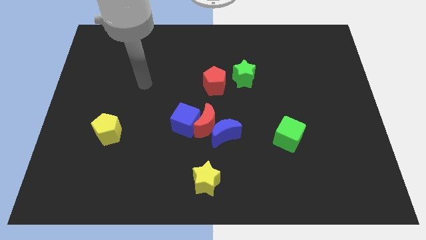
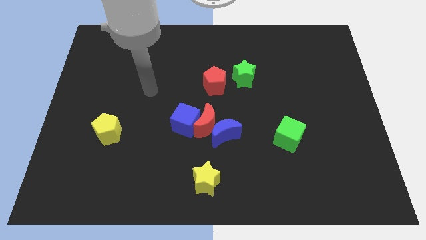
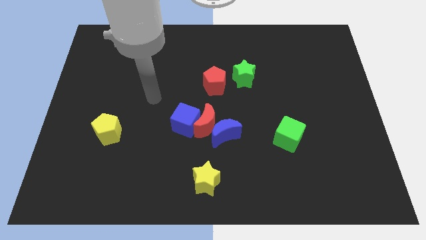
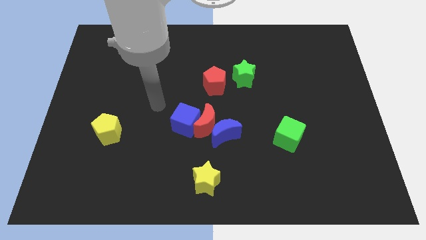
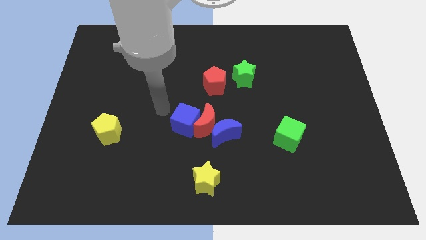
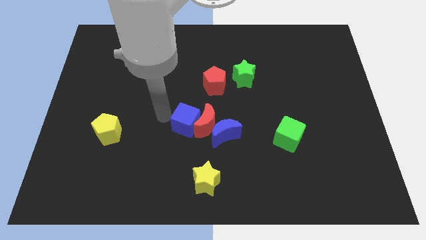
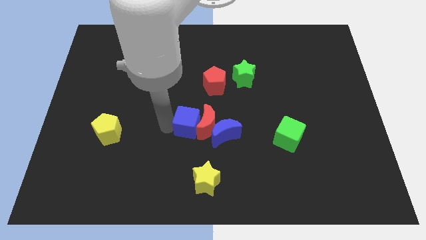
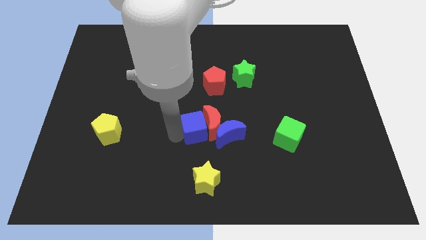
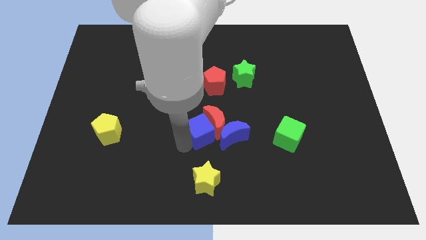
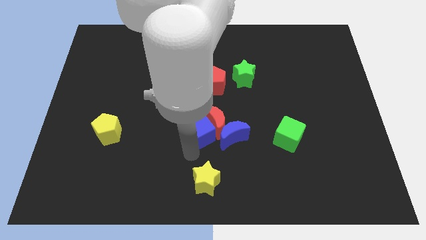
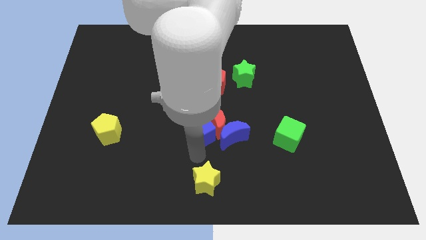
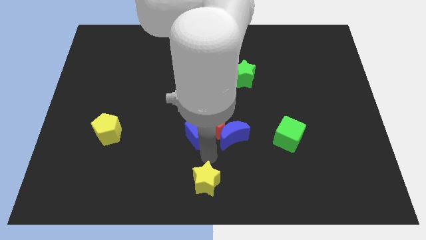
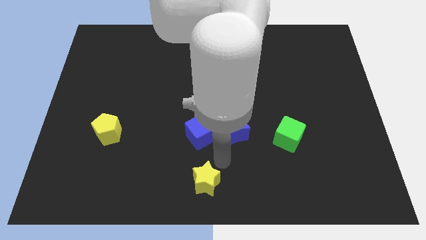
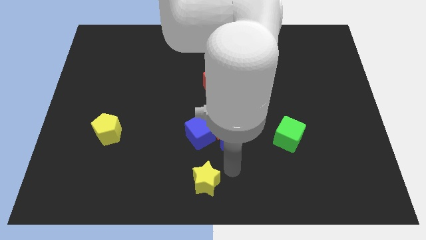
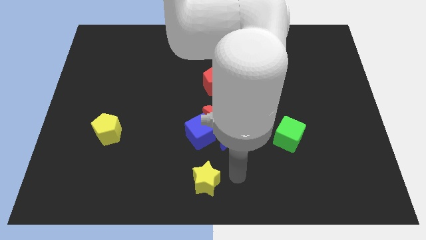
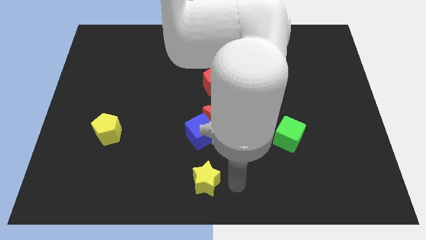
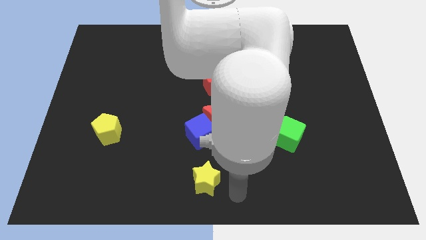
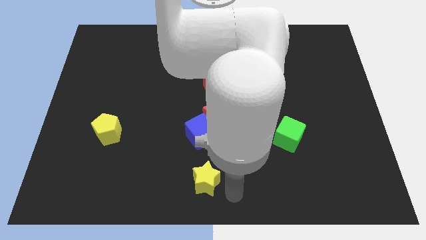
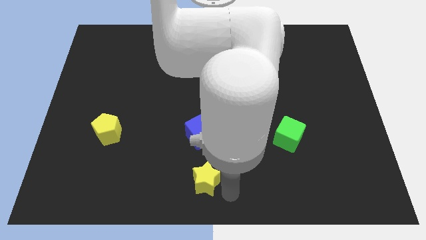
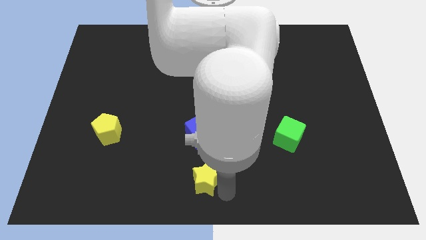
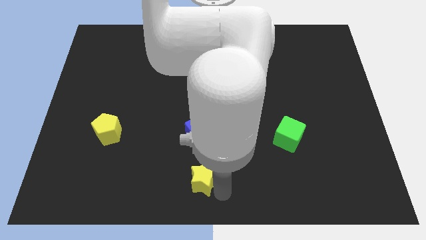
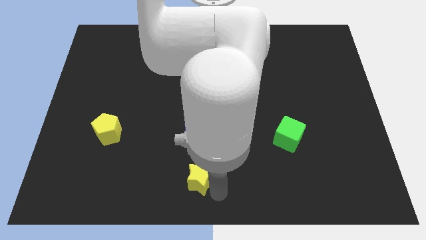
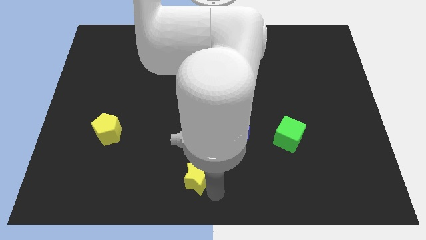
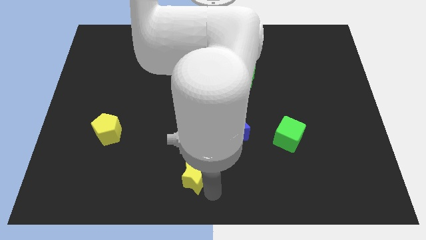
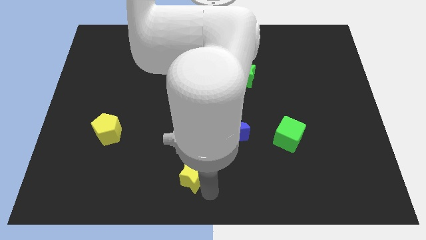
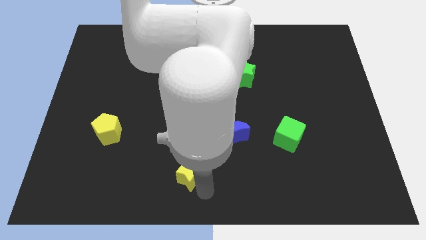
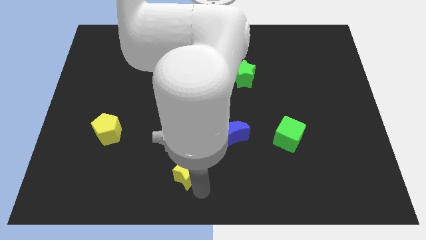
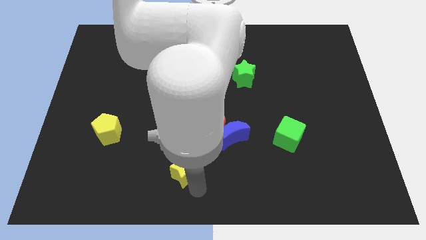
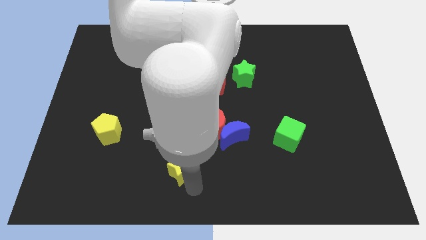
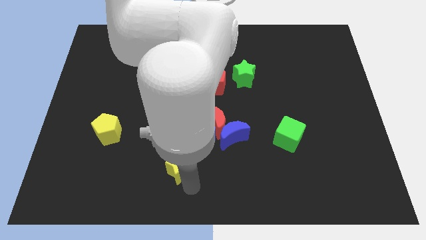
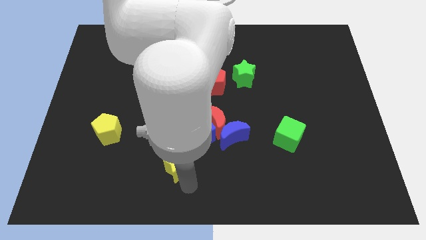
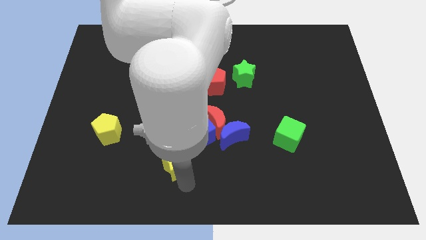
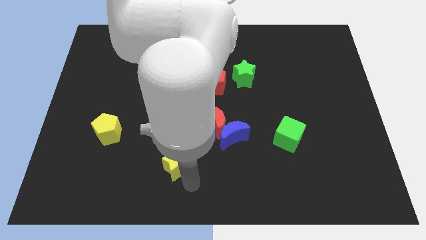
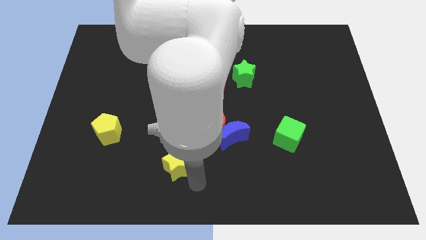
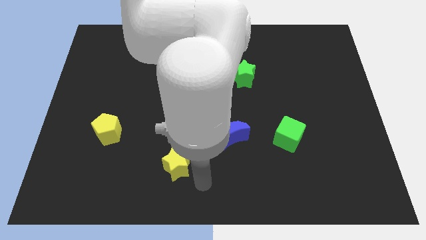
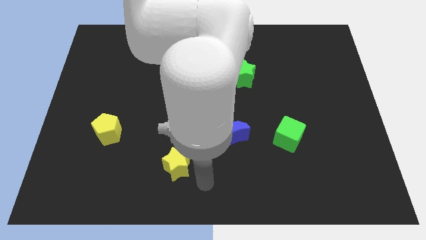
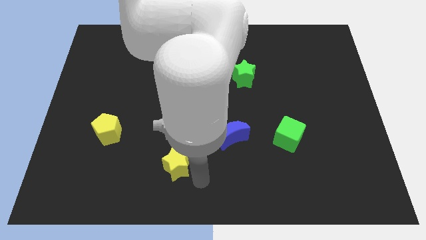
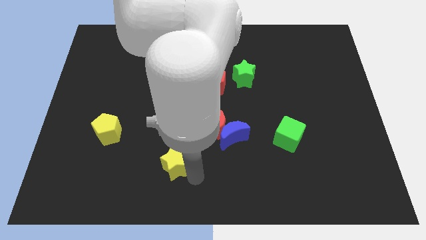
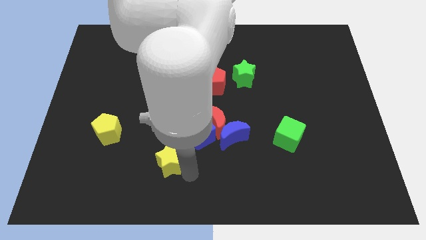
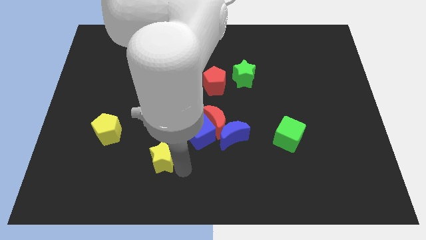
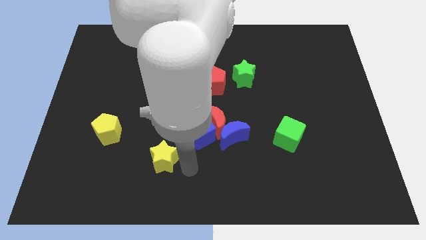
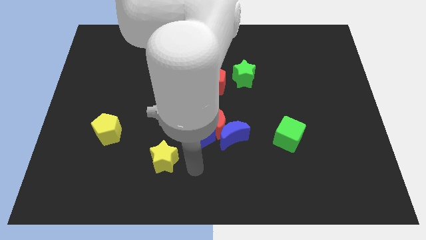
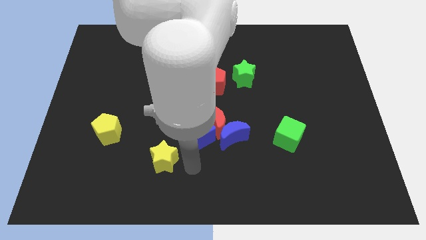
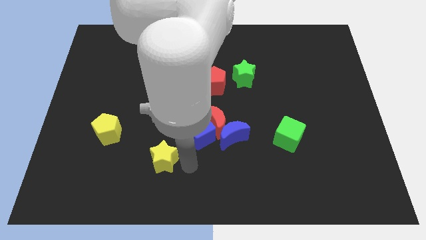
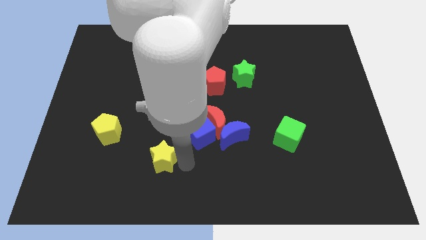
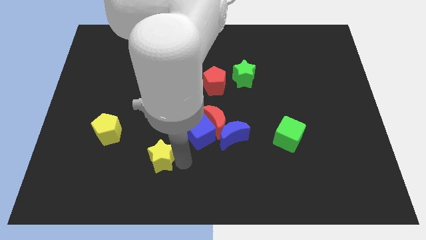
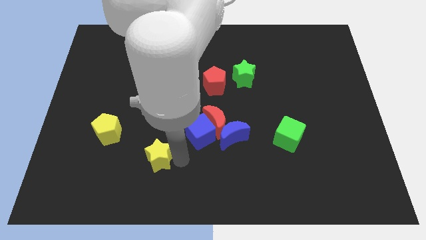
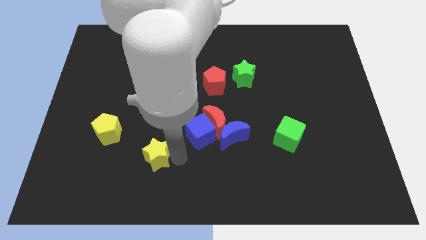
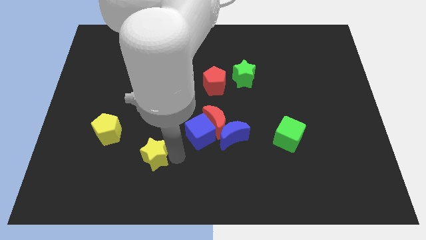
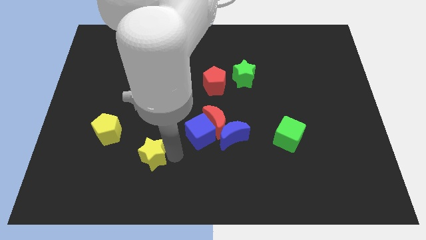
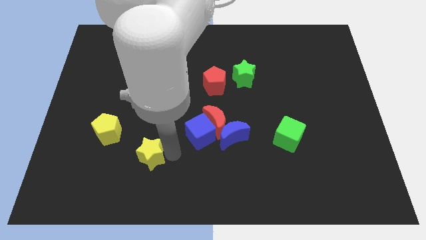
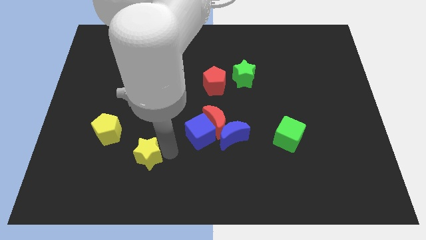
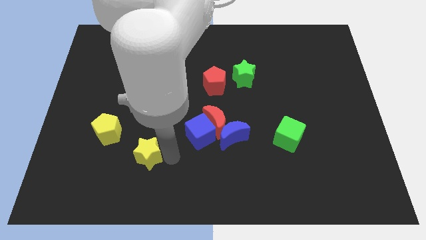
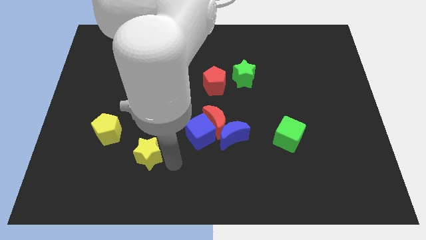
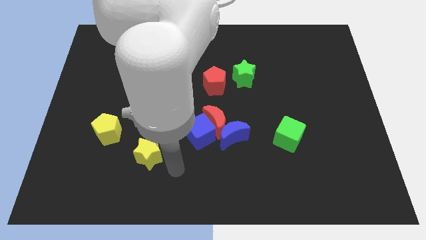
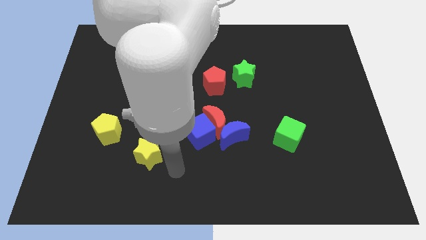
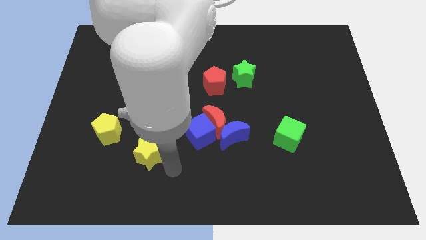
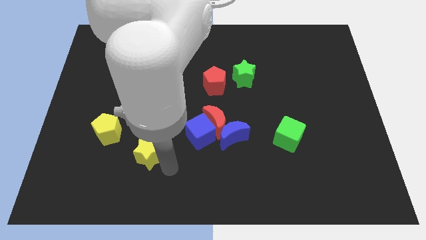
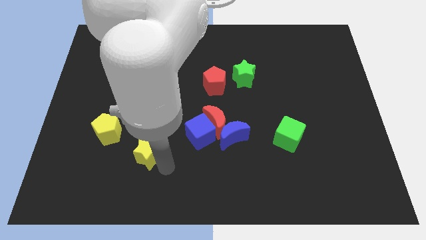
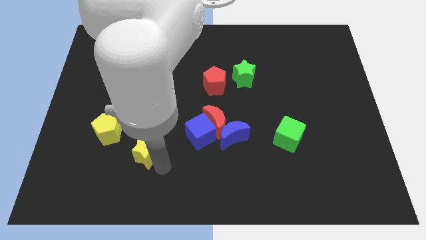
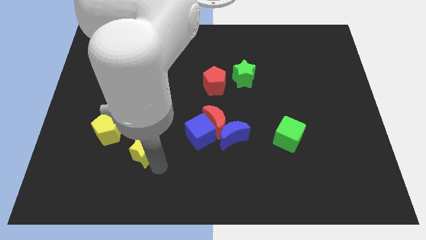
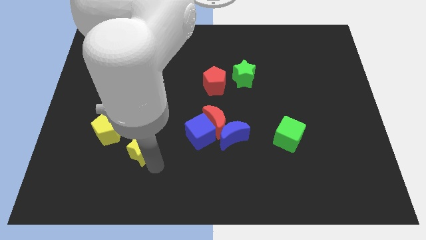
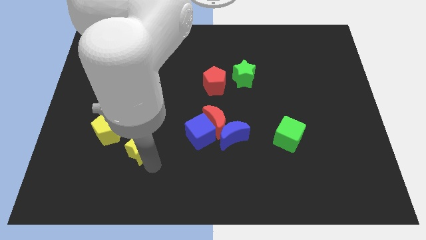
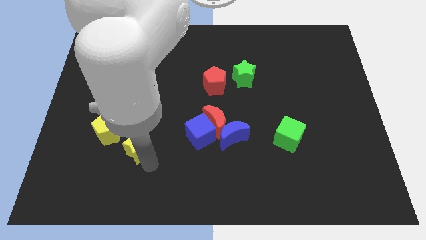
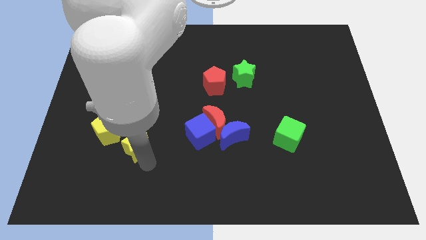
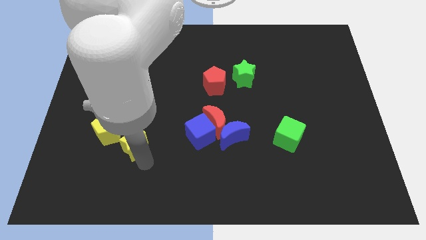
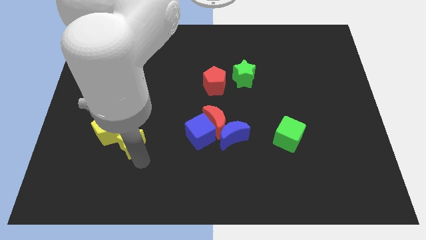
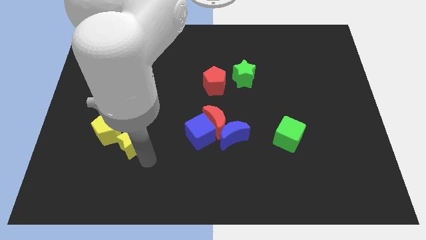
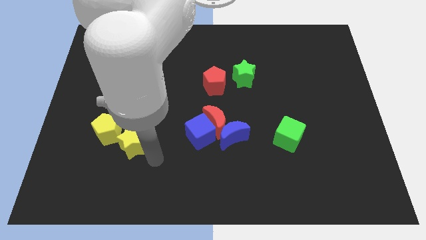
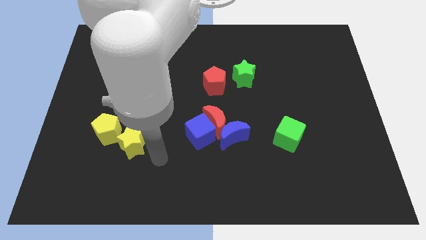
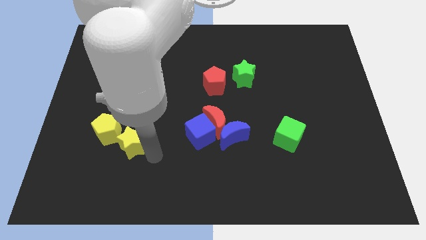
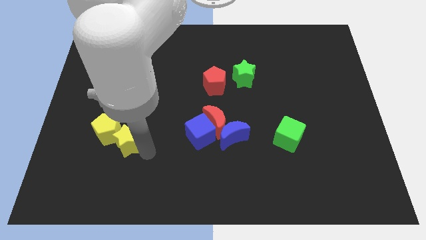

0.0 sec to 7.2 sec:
push the yellow star close to the yellow pentagon

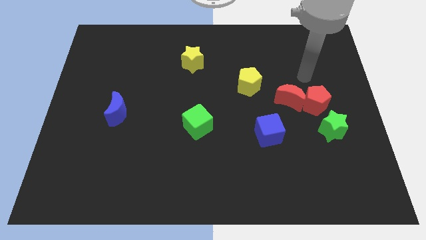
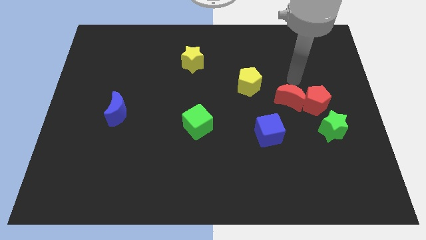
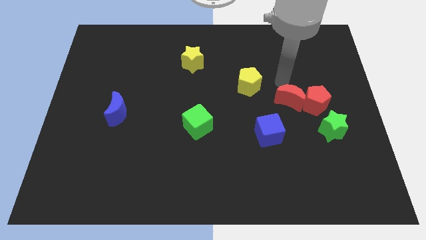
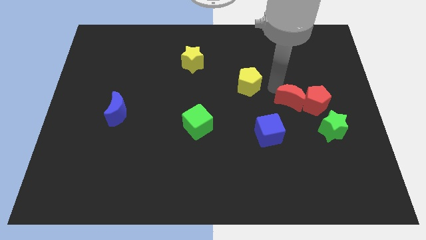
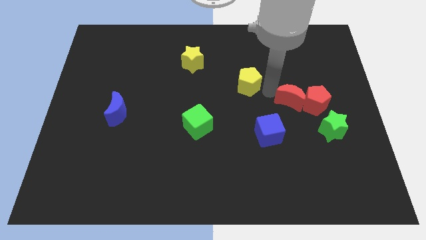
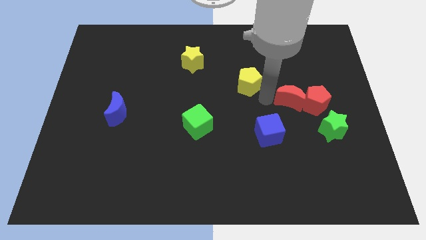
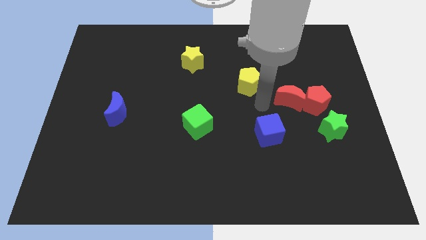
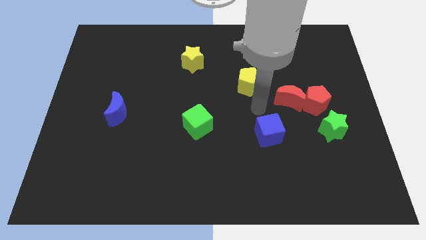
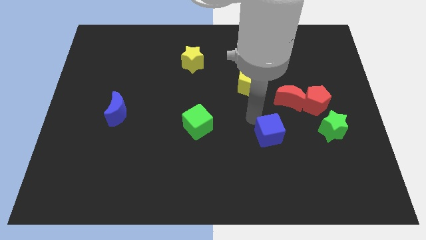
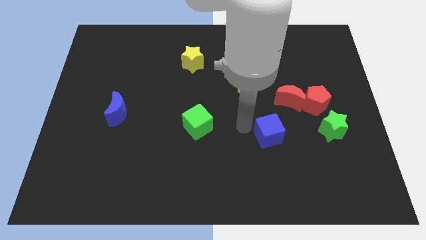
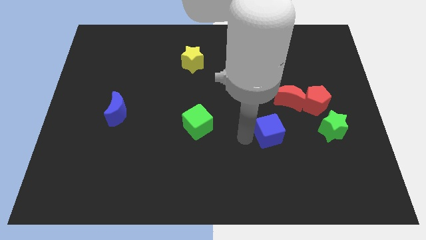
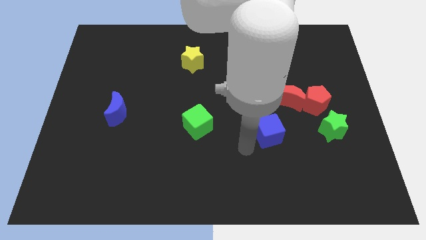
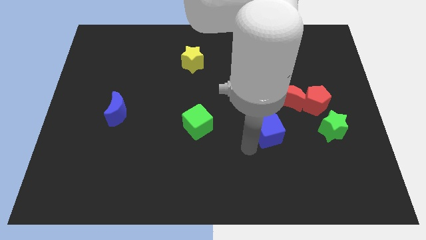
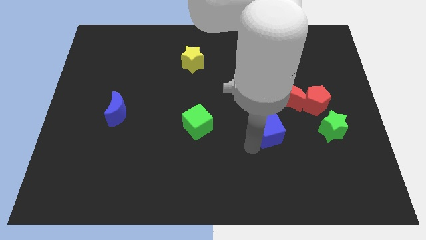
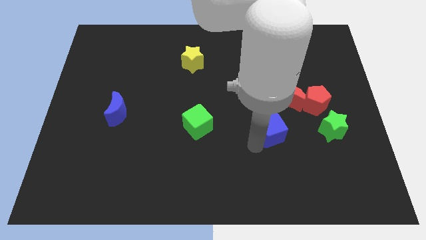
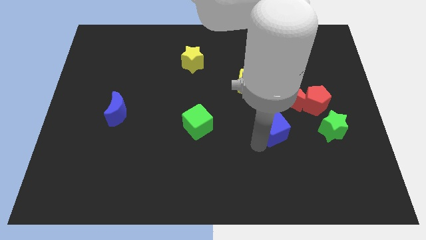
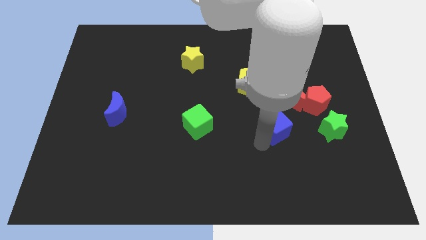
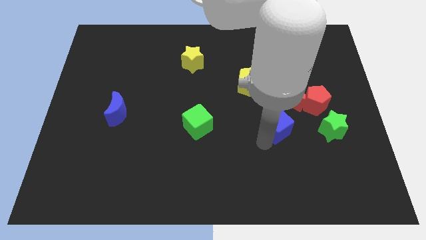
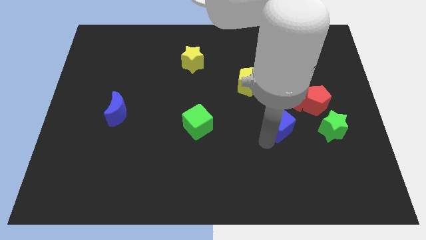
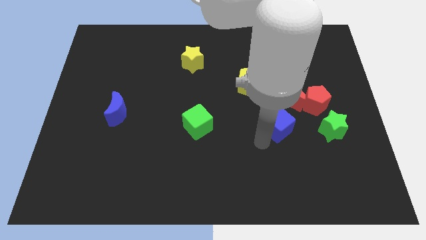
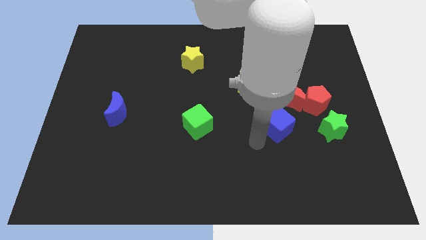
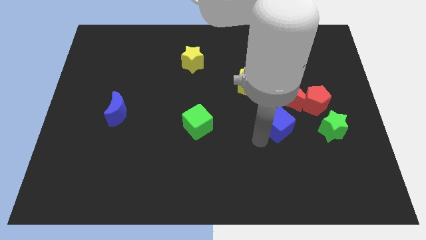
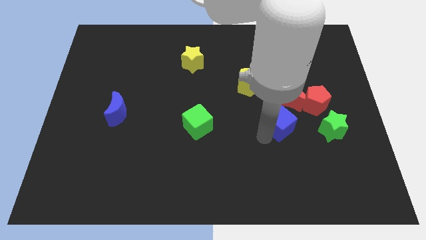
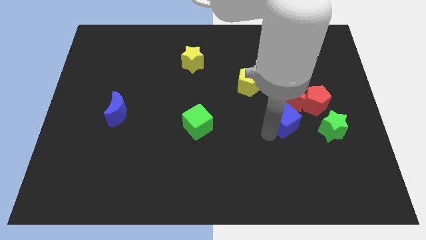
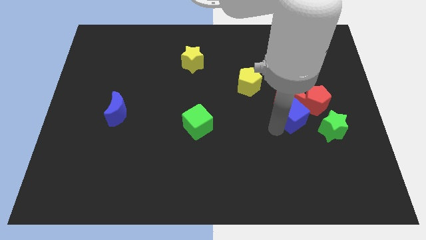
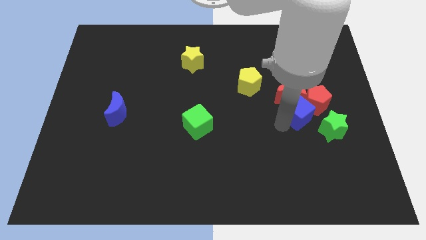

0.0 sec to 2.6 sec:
put the blue cube next to the red pentagon
